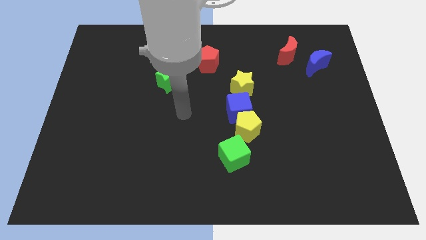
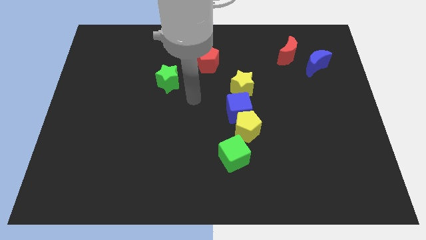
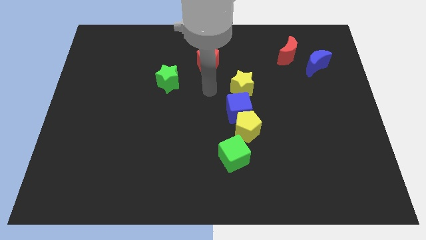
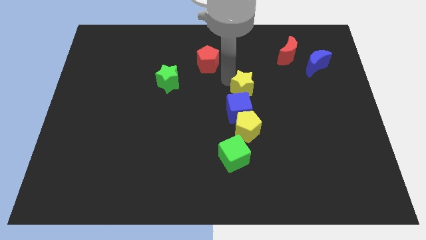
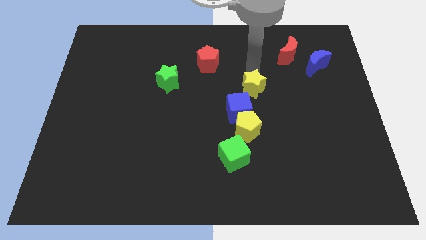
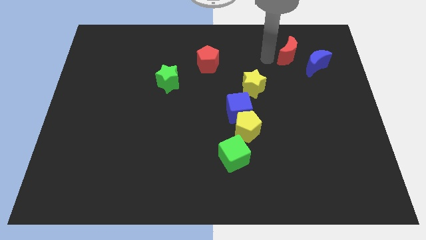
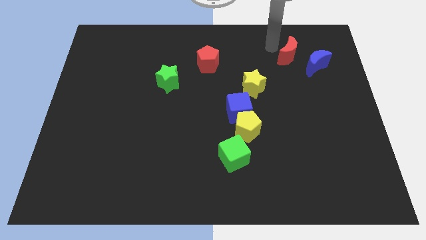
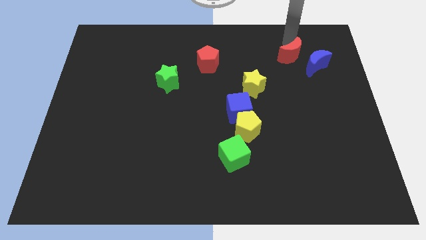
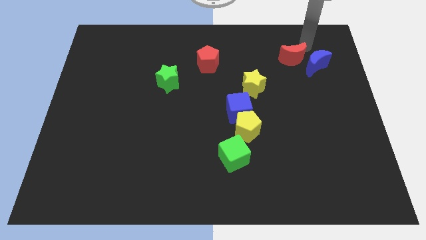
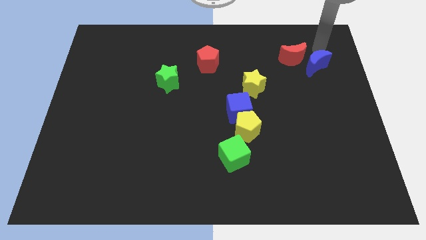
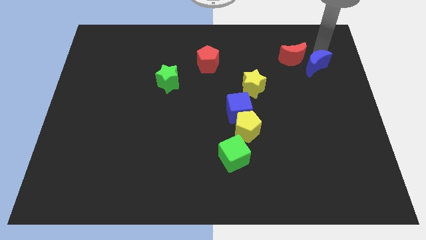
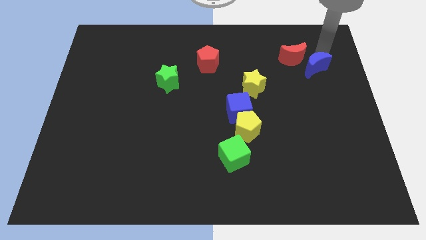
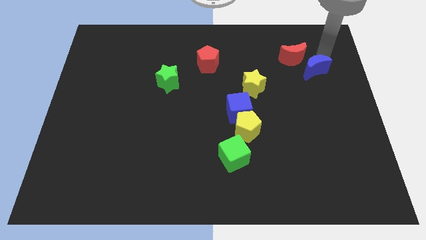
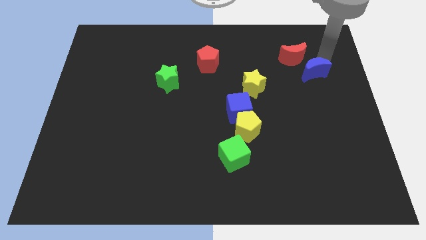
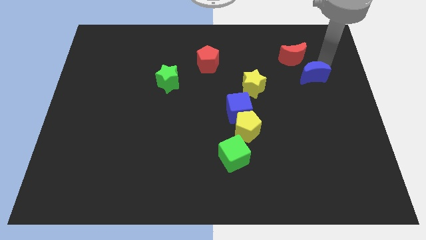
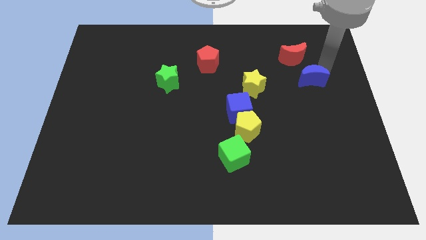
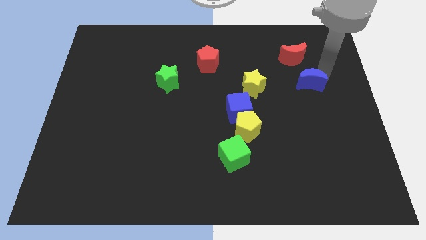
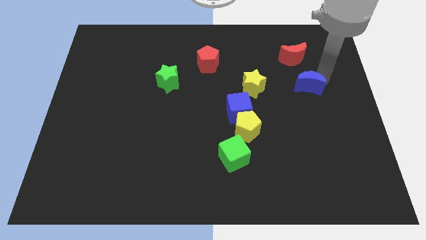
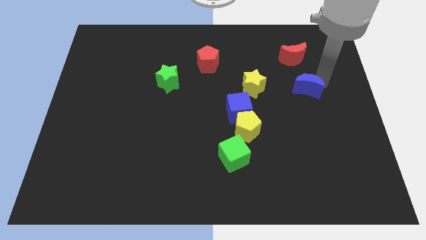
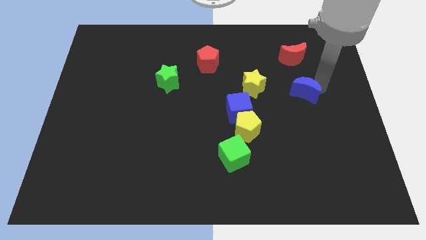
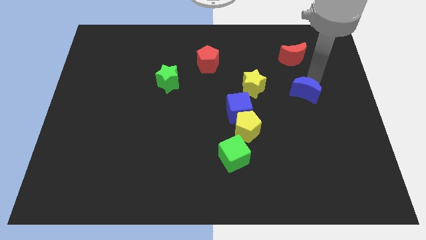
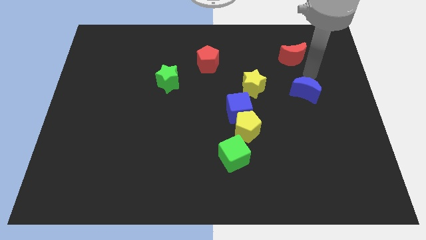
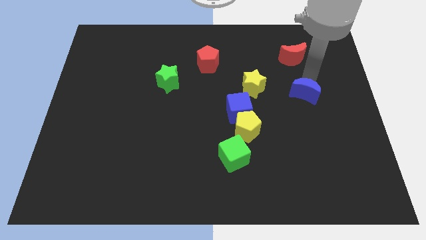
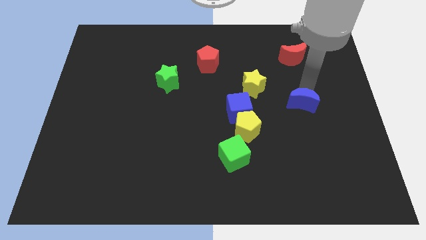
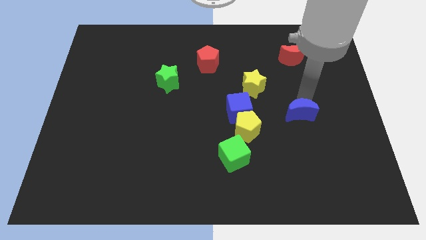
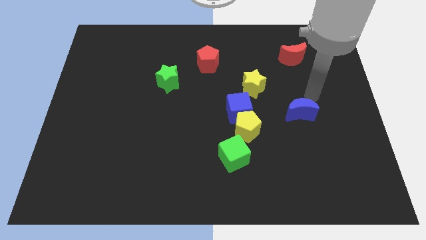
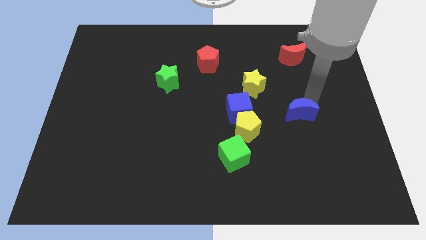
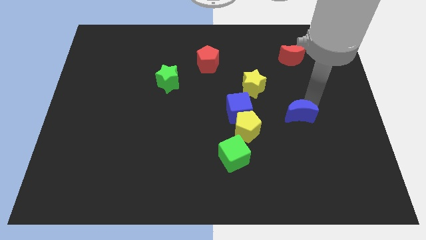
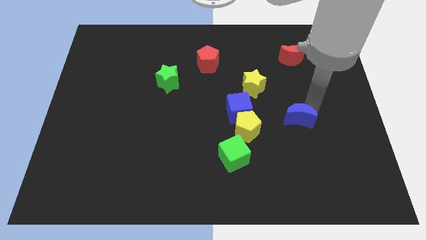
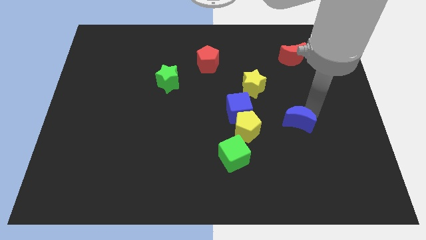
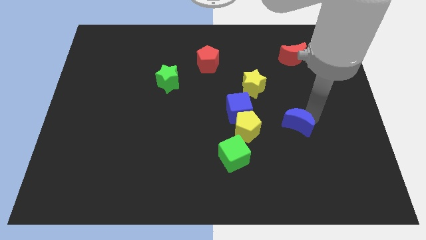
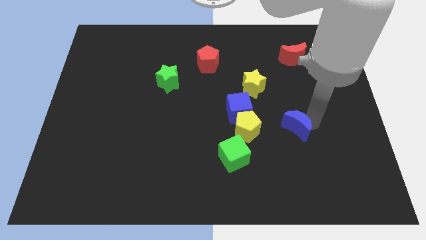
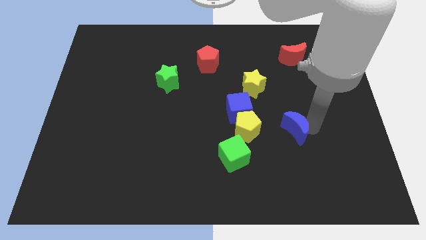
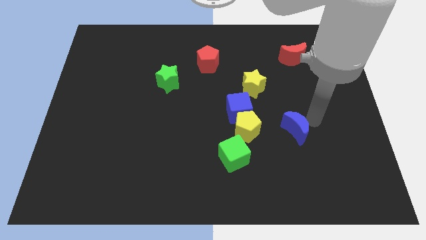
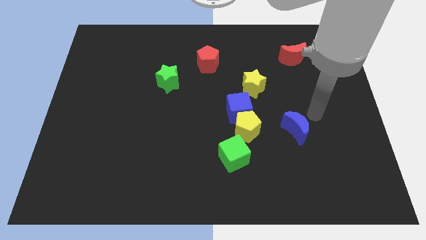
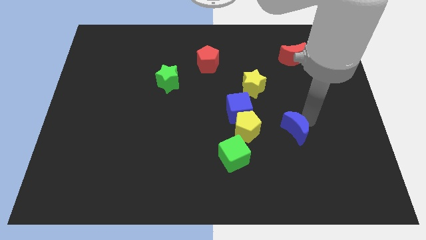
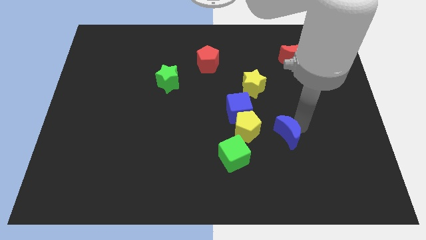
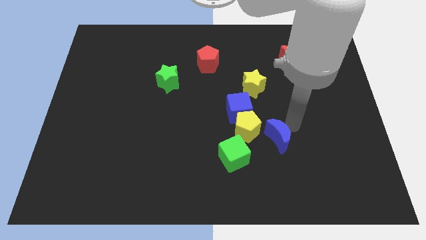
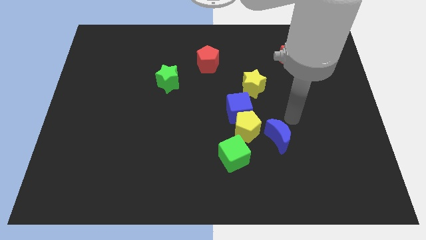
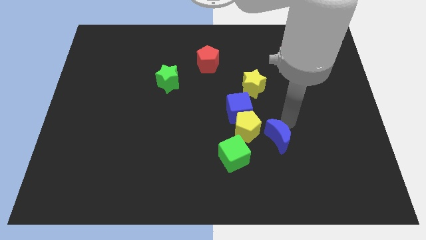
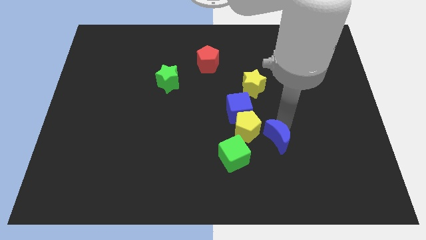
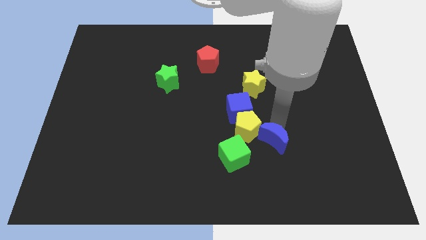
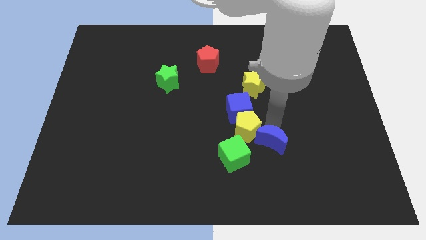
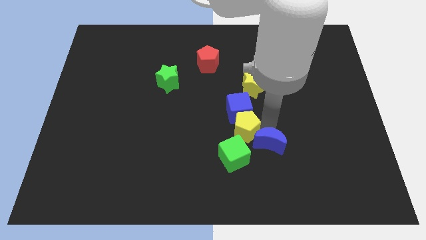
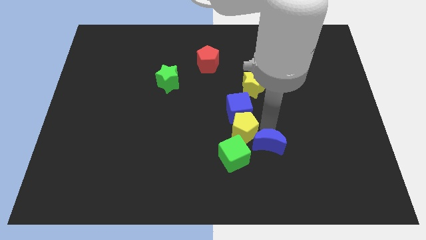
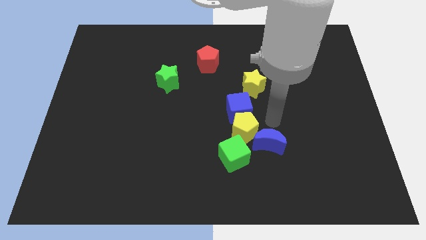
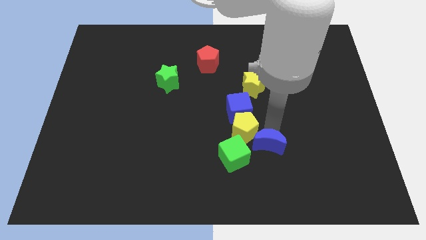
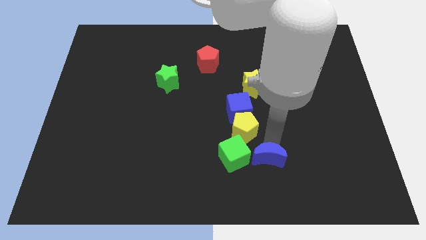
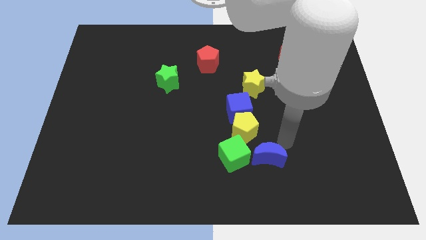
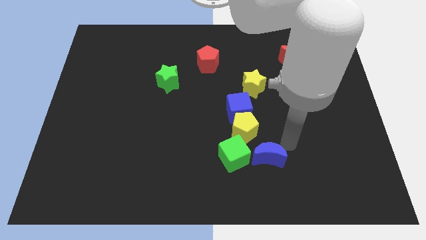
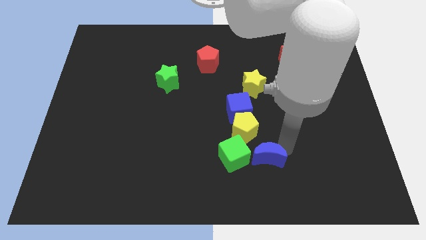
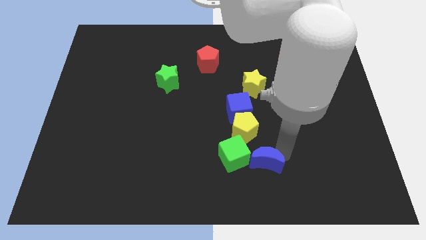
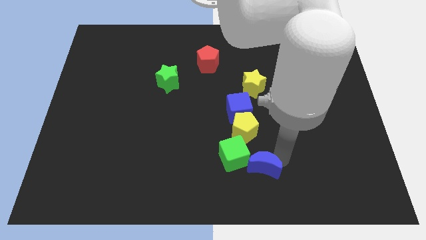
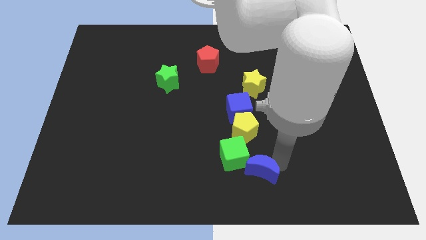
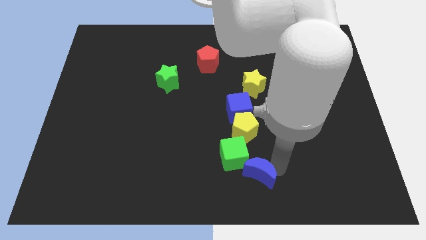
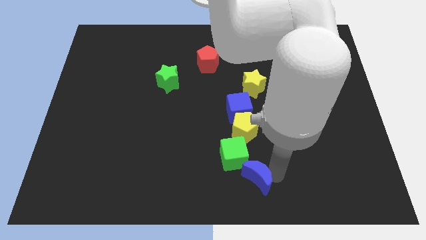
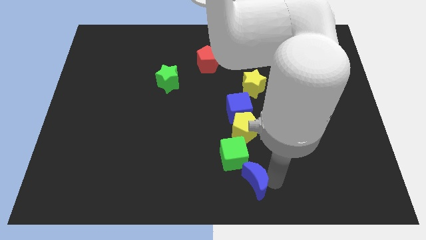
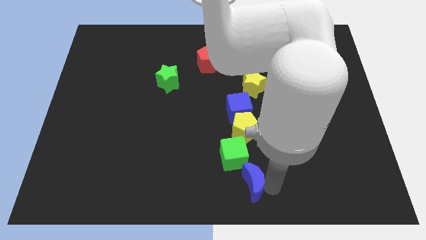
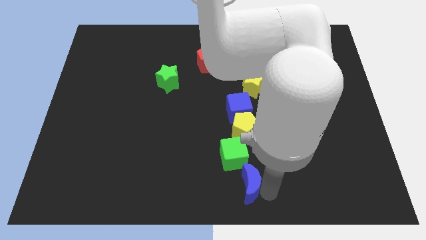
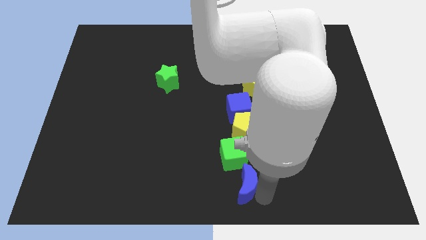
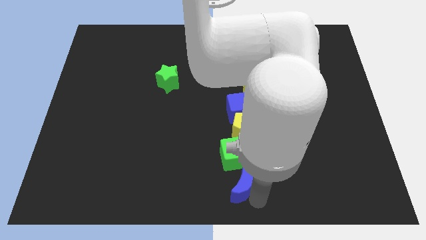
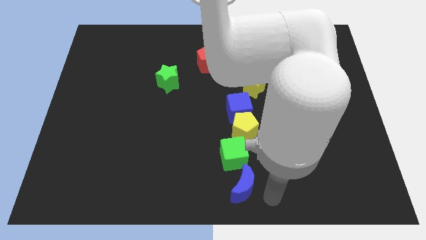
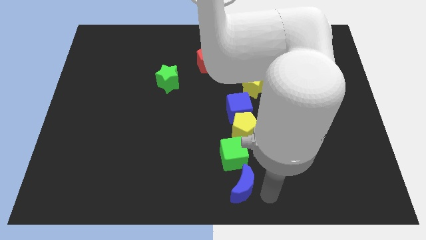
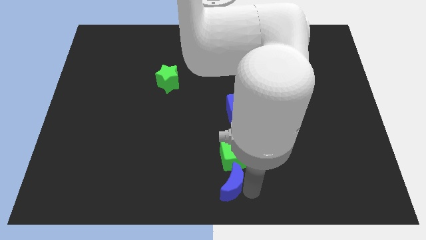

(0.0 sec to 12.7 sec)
slide the blue moon diagonally down and to the left of the green cube

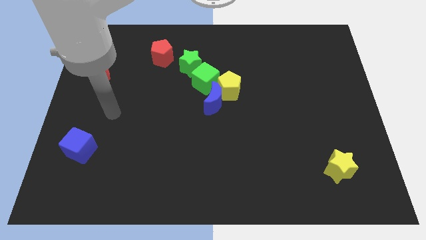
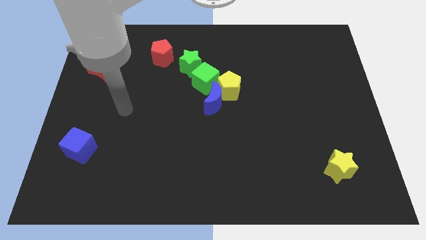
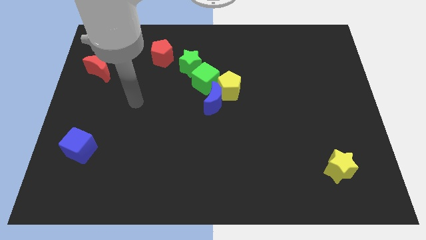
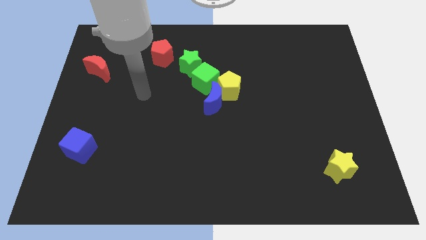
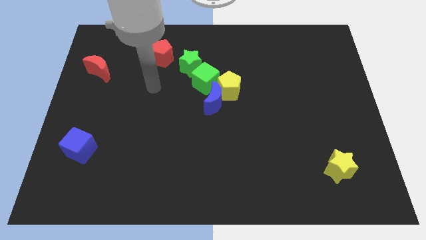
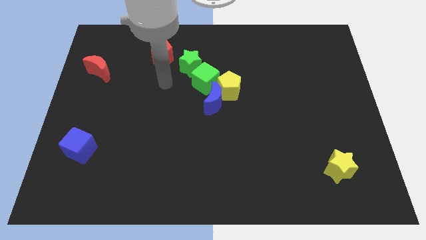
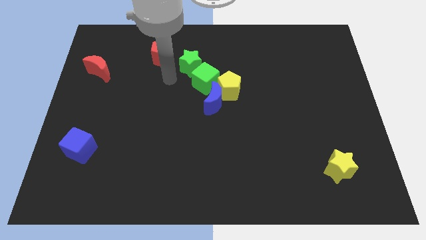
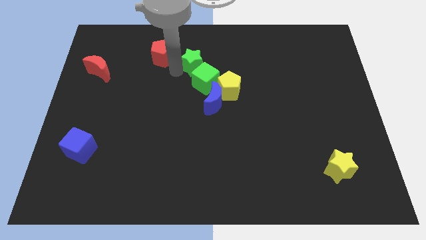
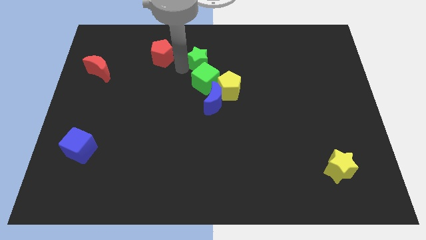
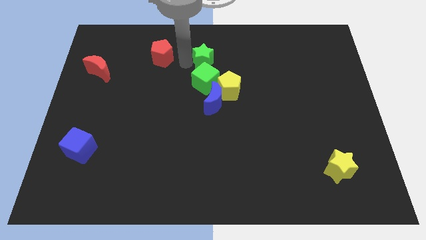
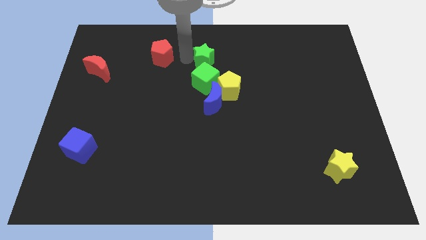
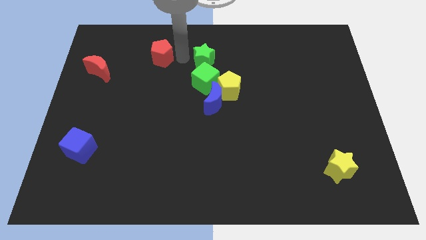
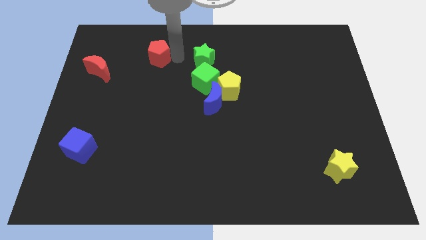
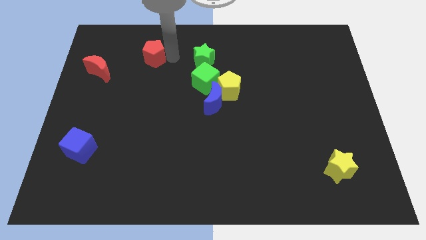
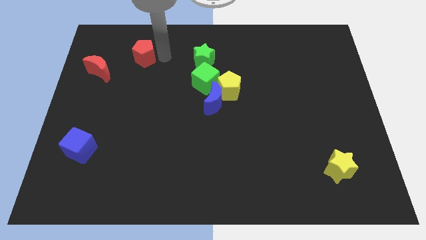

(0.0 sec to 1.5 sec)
put the red pentagon diagonally up and to the right of the red moon
